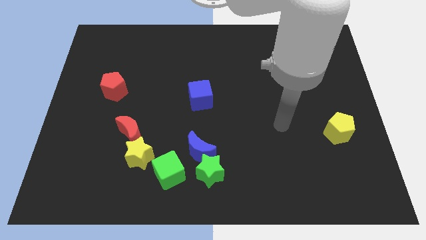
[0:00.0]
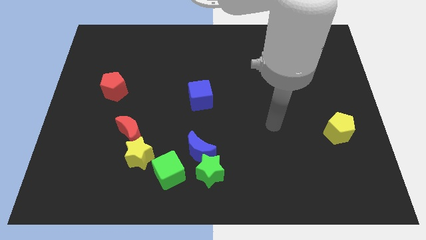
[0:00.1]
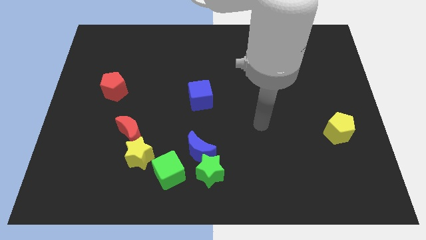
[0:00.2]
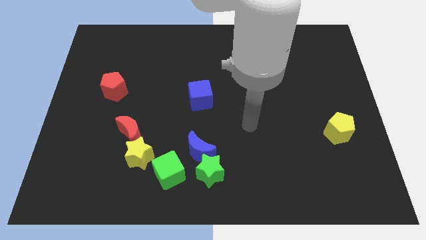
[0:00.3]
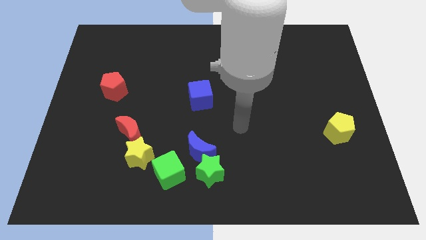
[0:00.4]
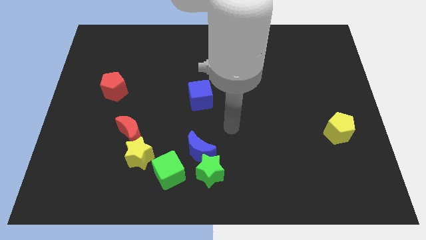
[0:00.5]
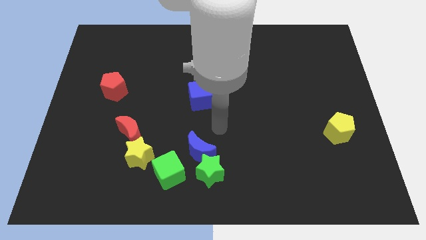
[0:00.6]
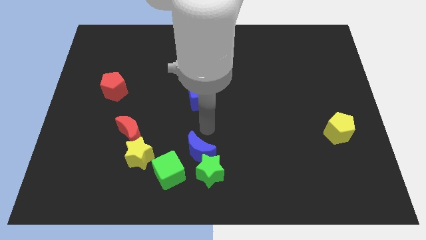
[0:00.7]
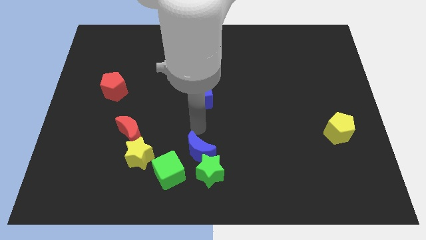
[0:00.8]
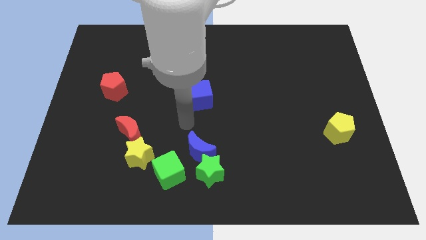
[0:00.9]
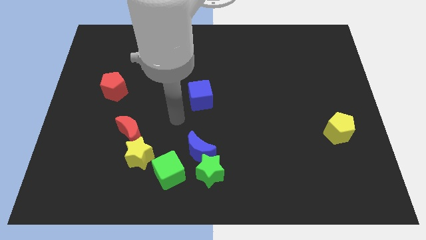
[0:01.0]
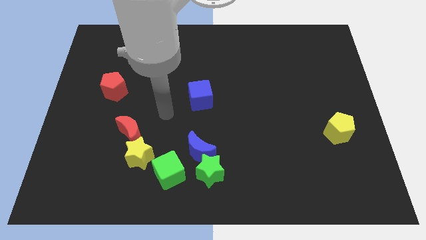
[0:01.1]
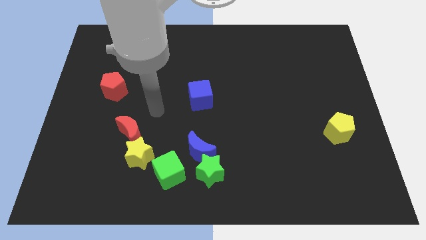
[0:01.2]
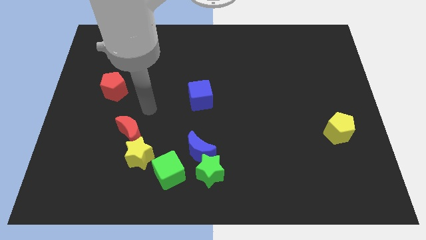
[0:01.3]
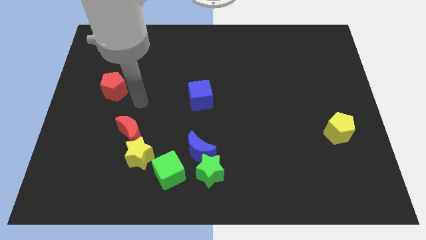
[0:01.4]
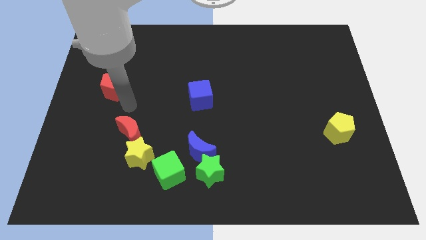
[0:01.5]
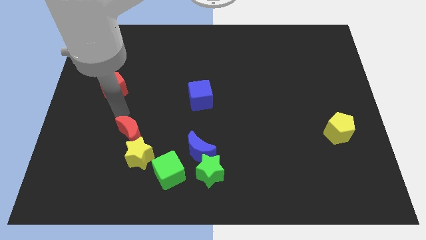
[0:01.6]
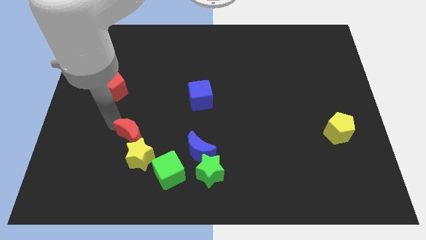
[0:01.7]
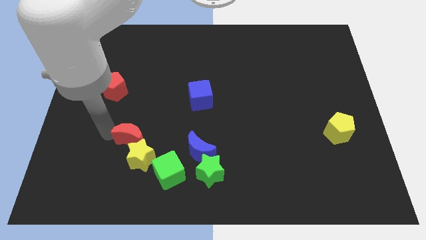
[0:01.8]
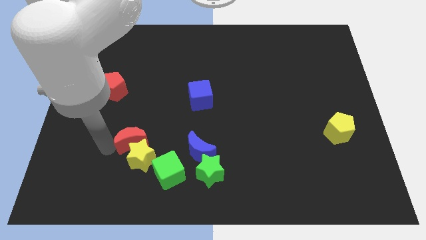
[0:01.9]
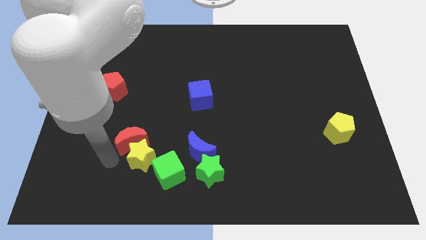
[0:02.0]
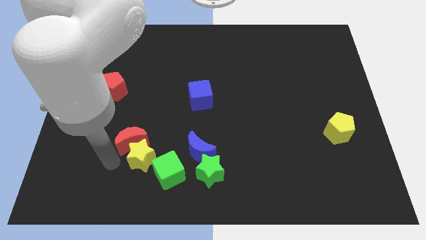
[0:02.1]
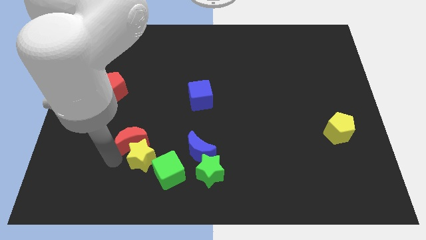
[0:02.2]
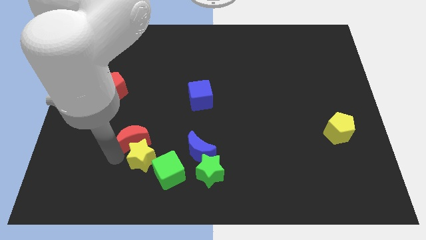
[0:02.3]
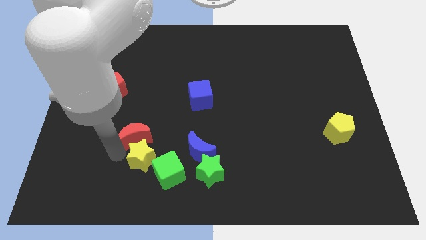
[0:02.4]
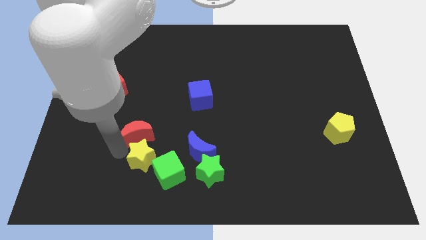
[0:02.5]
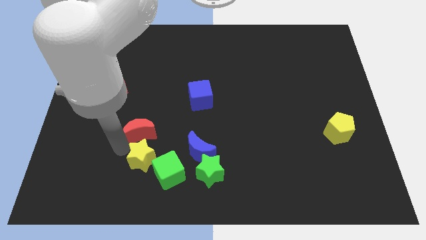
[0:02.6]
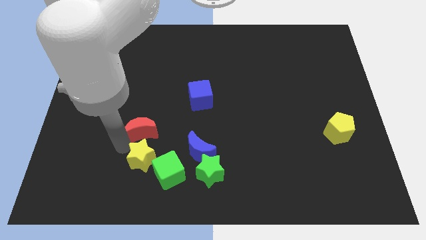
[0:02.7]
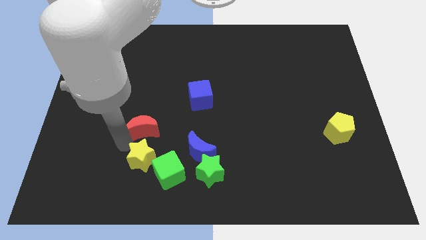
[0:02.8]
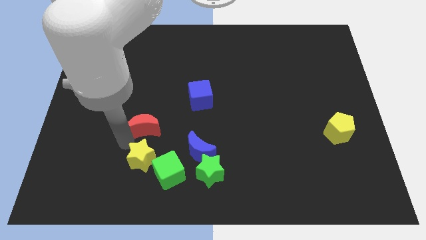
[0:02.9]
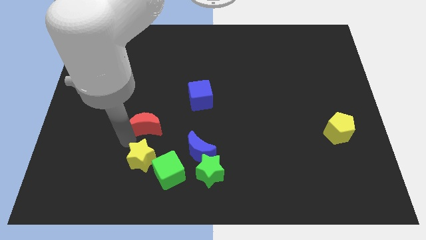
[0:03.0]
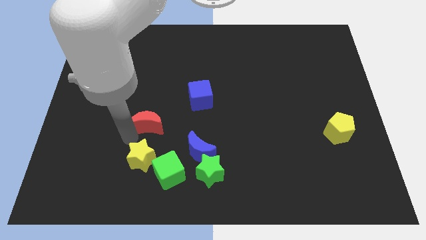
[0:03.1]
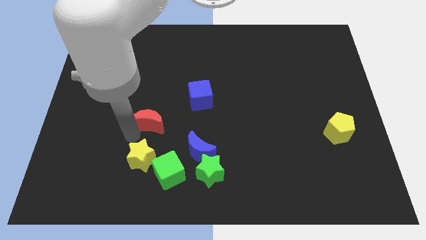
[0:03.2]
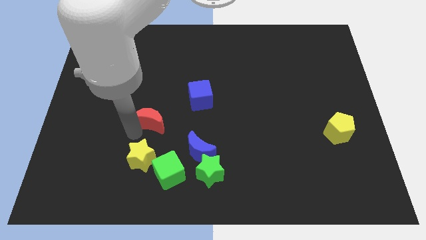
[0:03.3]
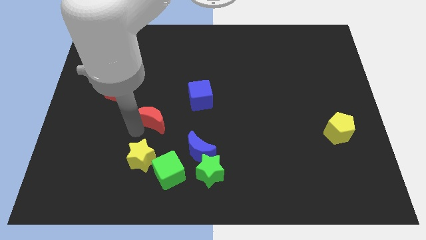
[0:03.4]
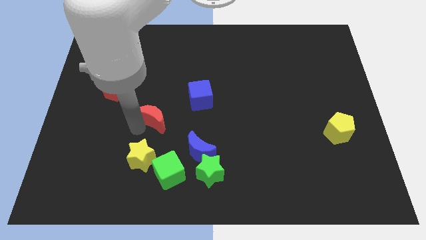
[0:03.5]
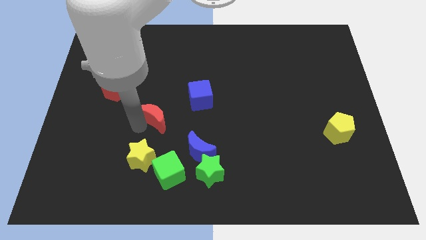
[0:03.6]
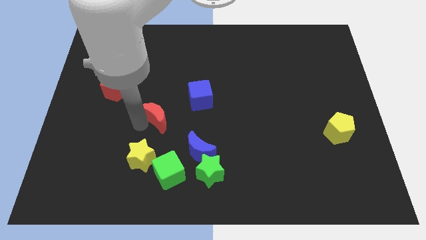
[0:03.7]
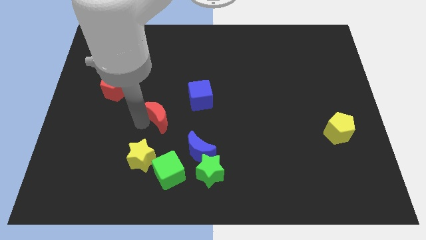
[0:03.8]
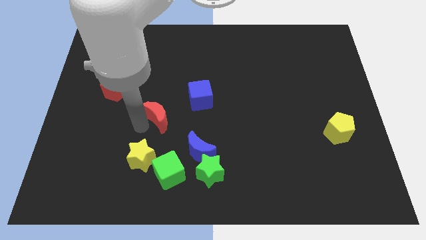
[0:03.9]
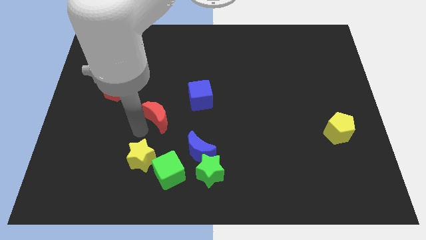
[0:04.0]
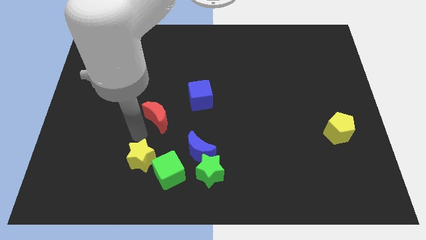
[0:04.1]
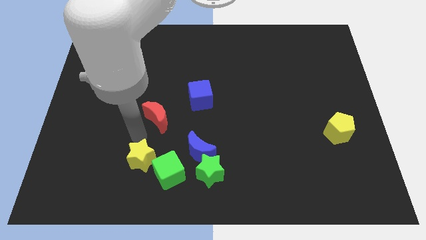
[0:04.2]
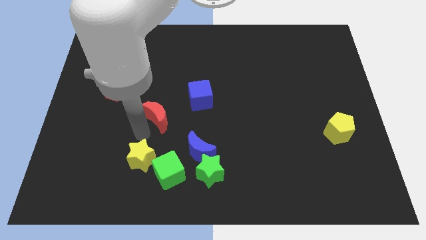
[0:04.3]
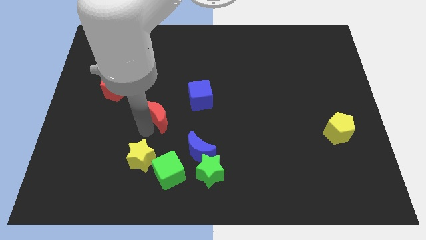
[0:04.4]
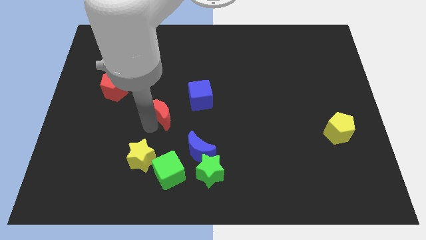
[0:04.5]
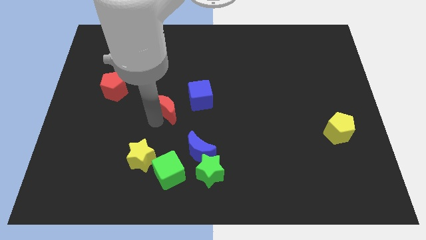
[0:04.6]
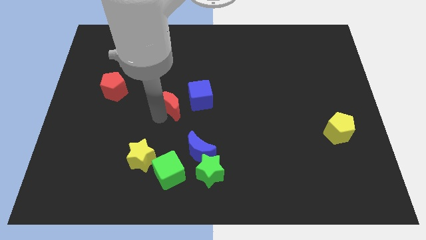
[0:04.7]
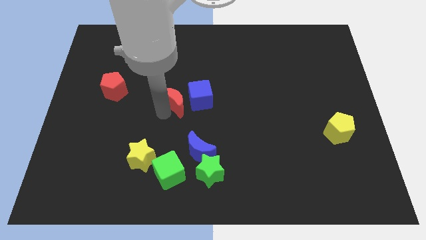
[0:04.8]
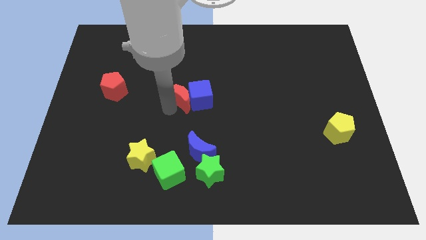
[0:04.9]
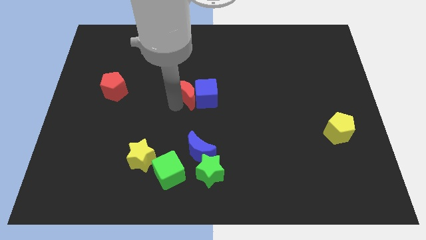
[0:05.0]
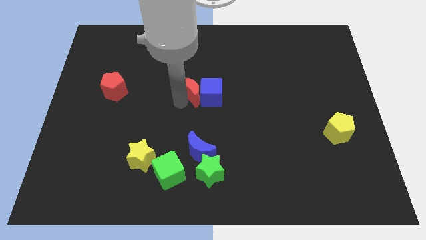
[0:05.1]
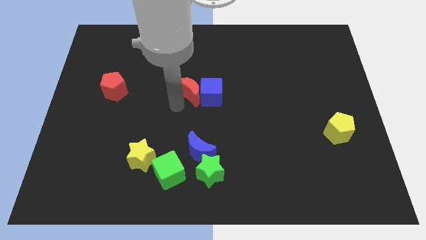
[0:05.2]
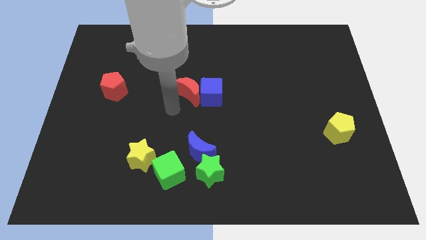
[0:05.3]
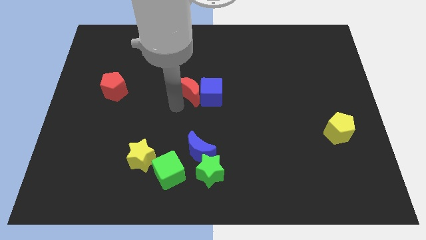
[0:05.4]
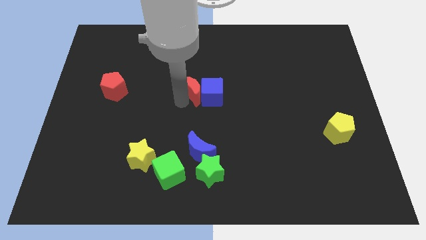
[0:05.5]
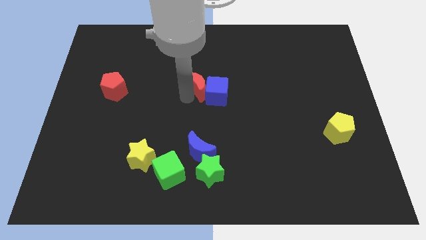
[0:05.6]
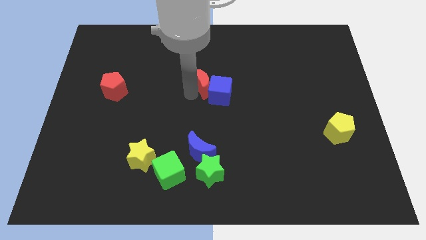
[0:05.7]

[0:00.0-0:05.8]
push the red moon up and right diagonally

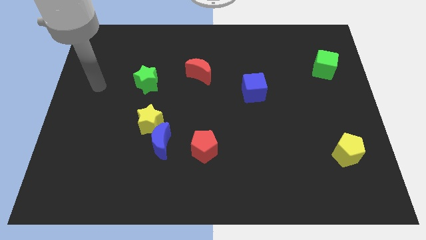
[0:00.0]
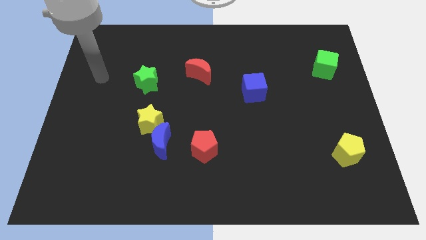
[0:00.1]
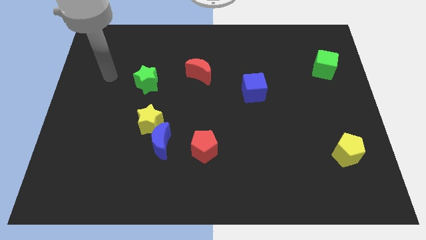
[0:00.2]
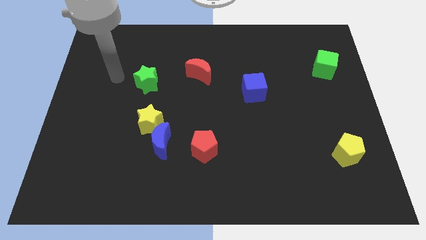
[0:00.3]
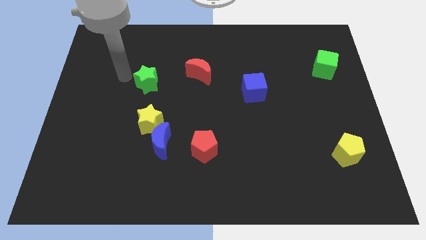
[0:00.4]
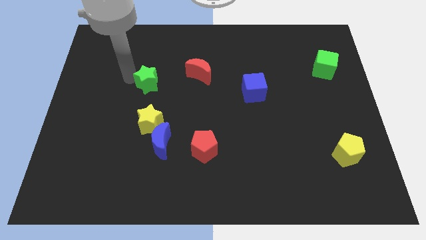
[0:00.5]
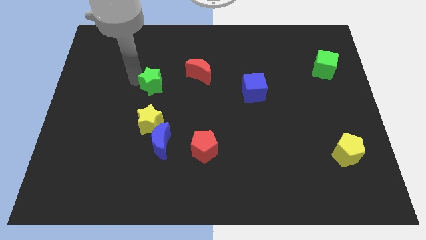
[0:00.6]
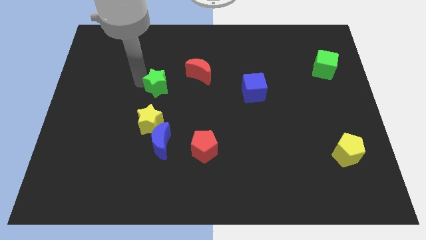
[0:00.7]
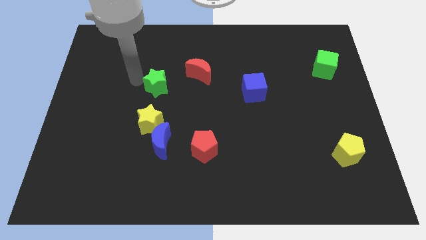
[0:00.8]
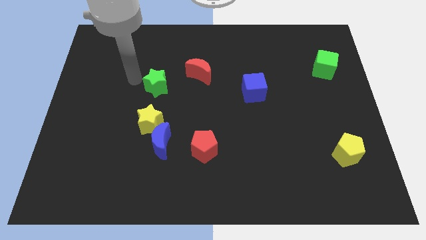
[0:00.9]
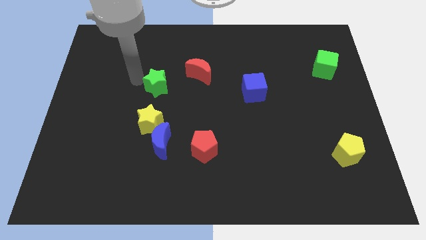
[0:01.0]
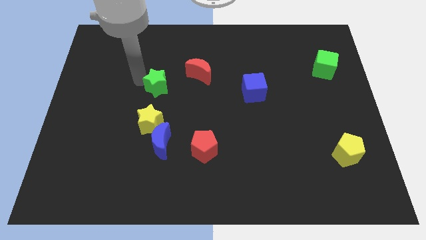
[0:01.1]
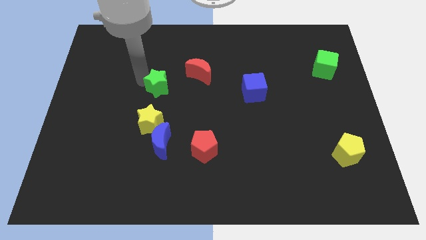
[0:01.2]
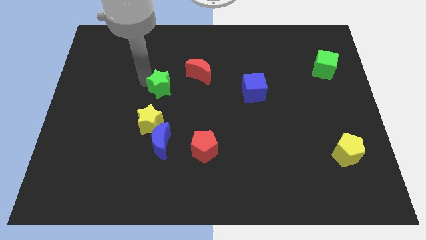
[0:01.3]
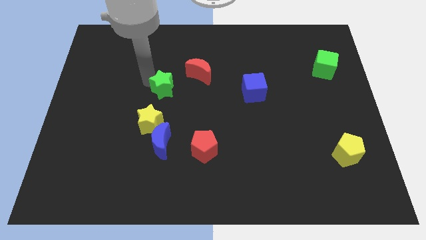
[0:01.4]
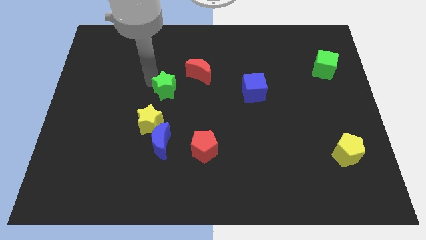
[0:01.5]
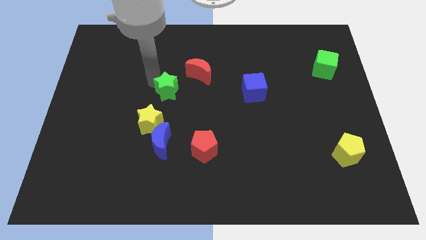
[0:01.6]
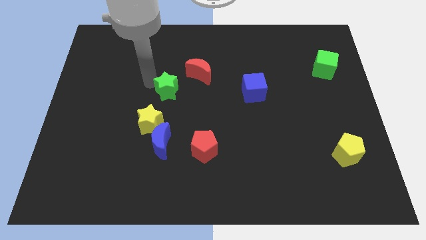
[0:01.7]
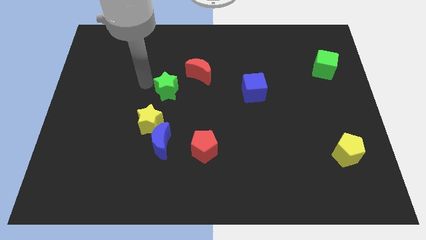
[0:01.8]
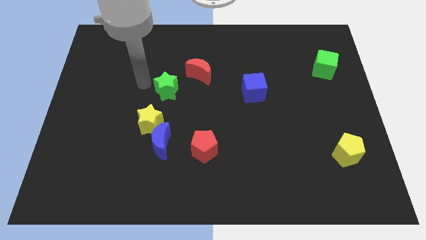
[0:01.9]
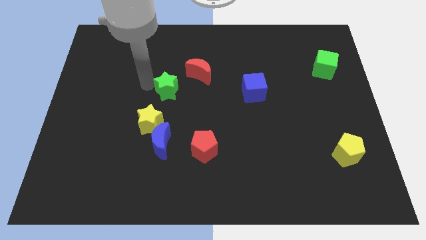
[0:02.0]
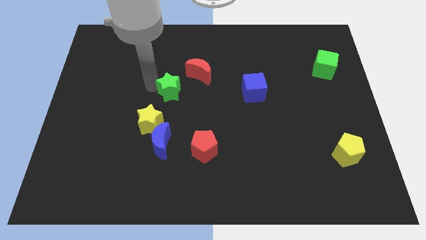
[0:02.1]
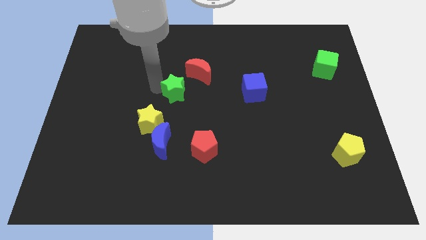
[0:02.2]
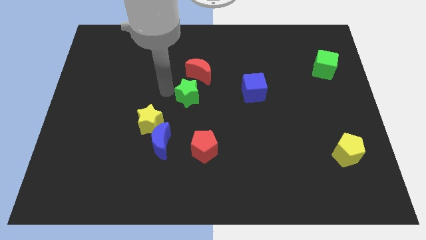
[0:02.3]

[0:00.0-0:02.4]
slightly move the green star to the right

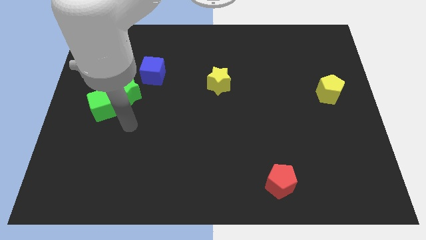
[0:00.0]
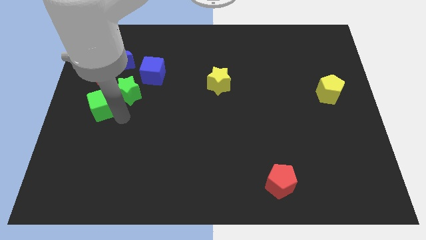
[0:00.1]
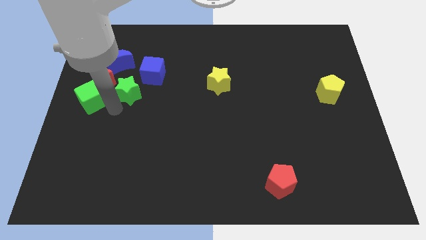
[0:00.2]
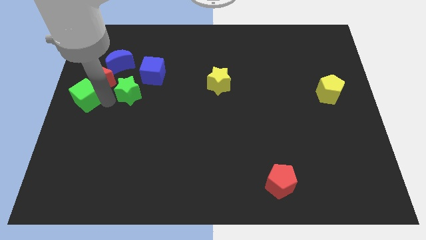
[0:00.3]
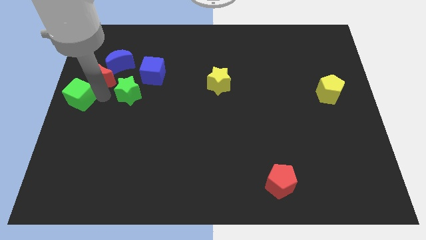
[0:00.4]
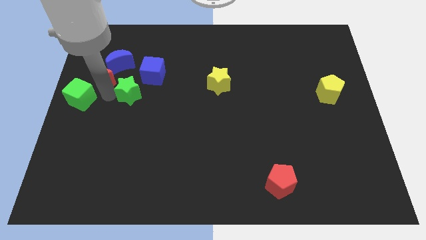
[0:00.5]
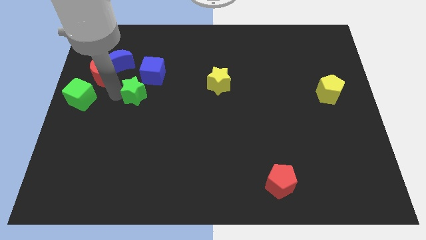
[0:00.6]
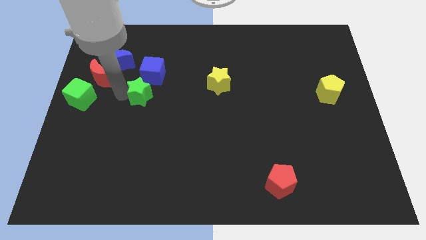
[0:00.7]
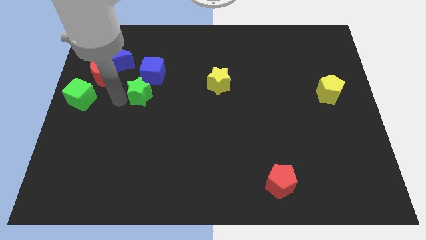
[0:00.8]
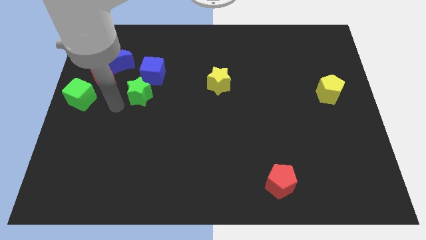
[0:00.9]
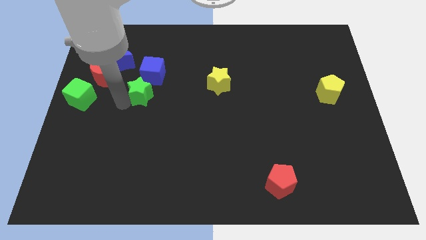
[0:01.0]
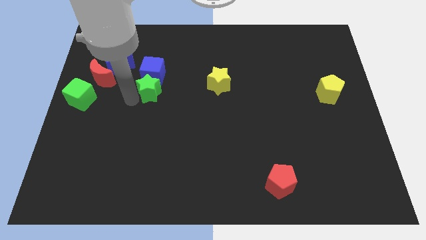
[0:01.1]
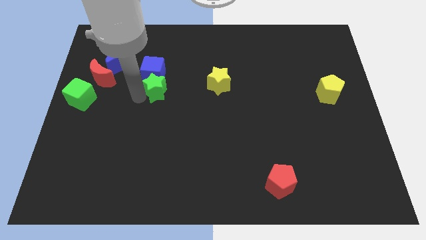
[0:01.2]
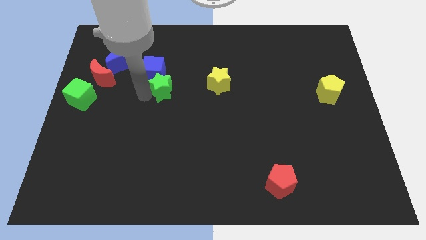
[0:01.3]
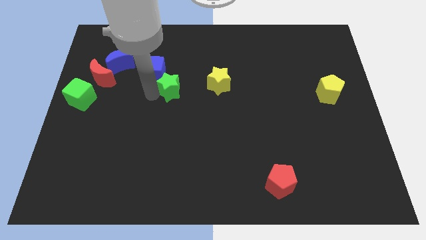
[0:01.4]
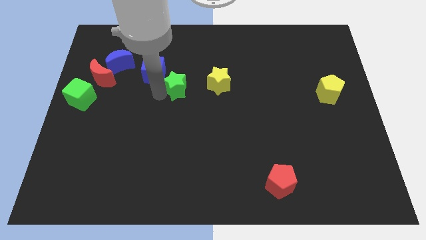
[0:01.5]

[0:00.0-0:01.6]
slightly move the green star upwards and then to the right
